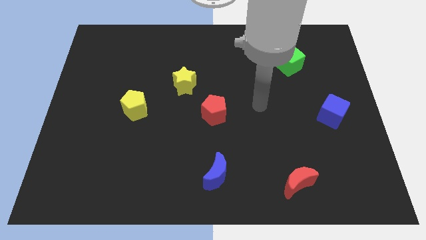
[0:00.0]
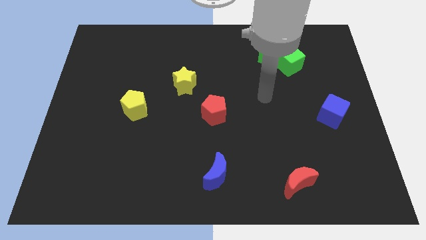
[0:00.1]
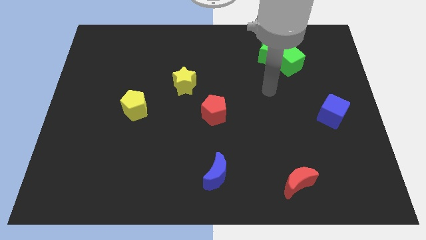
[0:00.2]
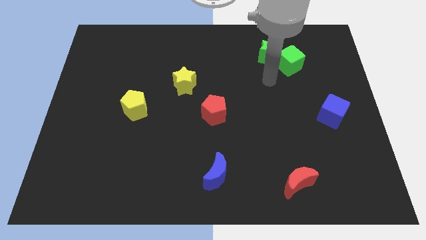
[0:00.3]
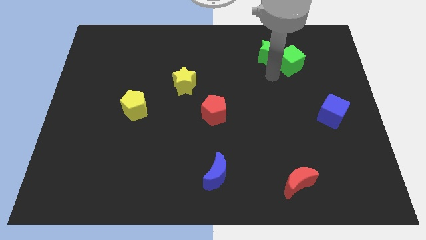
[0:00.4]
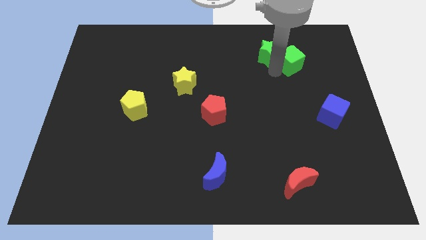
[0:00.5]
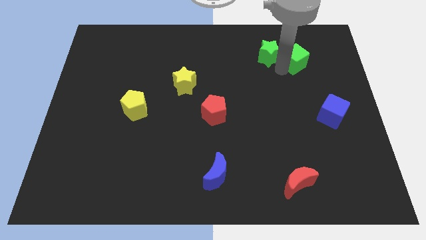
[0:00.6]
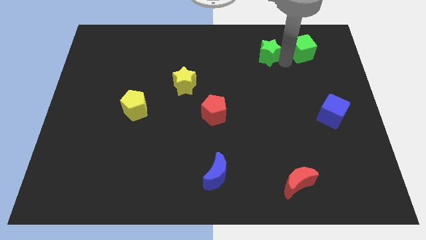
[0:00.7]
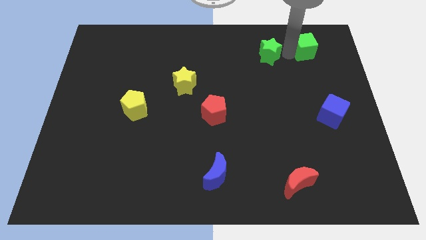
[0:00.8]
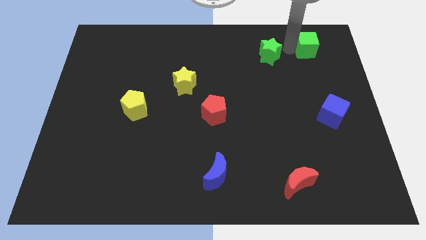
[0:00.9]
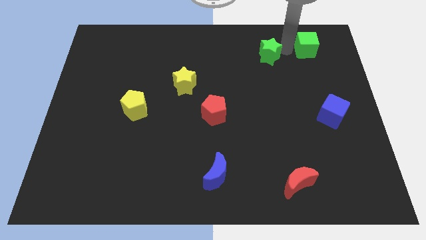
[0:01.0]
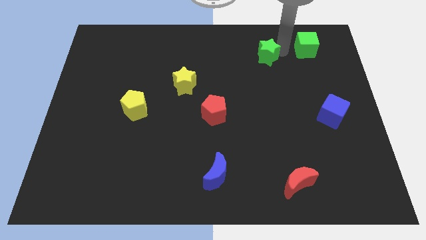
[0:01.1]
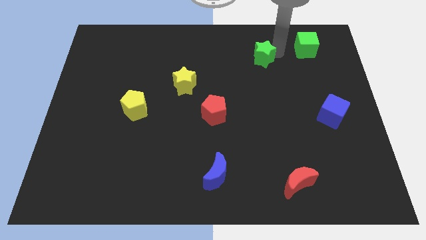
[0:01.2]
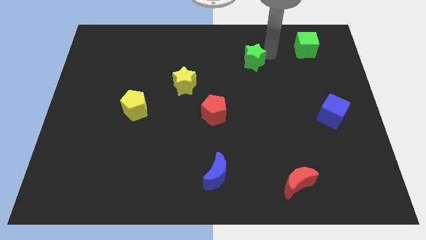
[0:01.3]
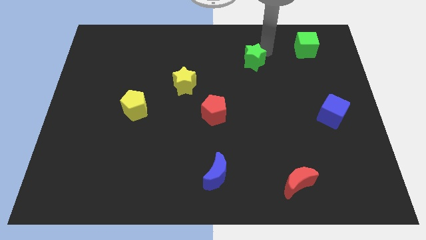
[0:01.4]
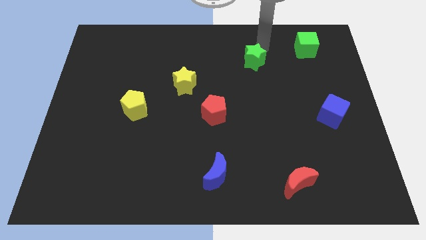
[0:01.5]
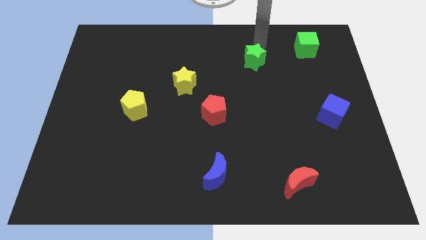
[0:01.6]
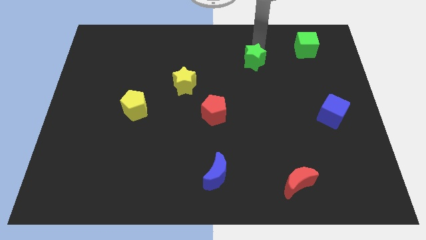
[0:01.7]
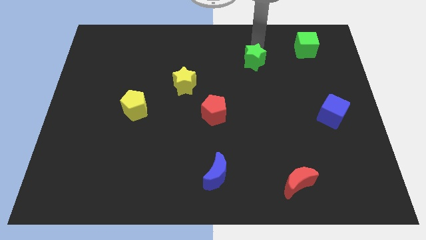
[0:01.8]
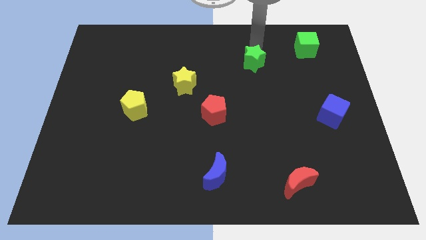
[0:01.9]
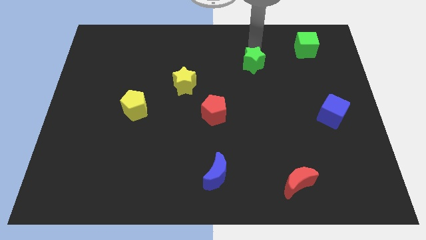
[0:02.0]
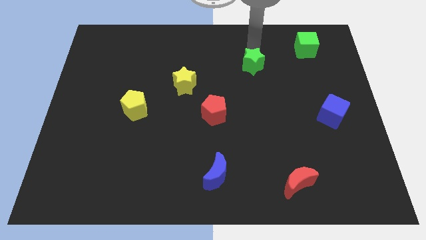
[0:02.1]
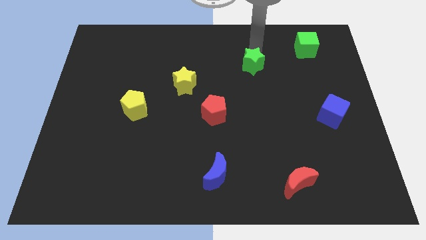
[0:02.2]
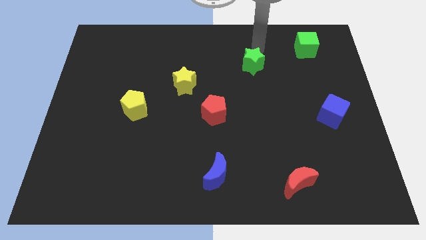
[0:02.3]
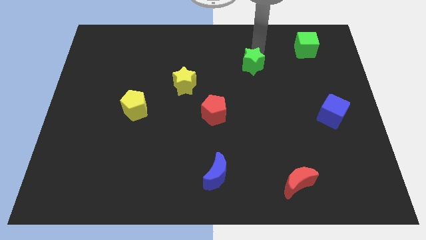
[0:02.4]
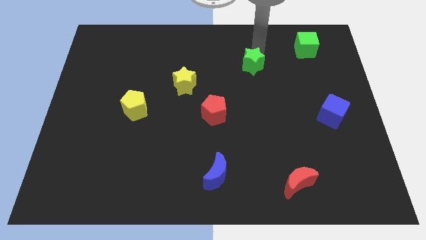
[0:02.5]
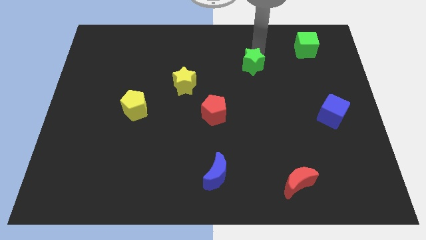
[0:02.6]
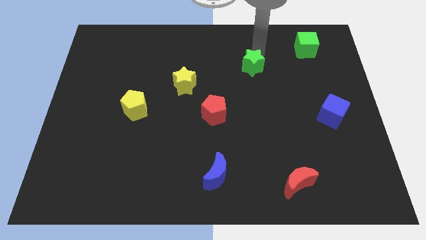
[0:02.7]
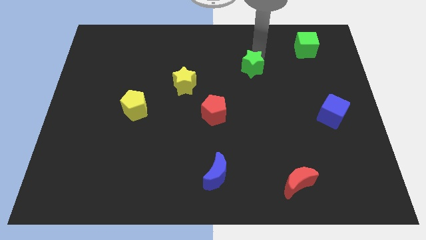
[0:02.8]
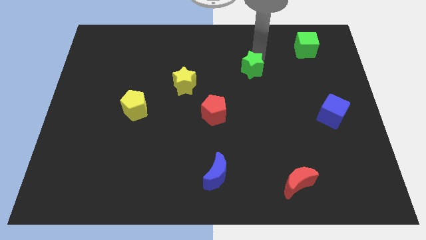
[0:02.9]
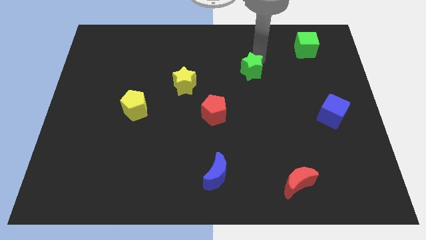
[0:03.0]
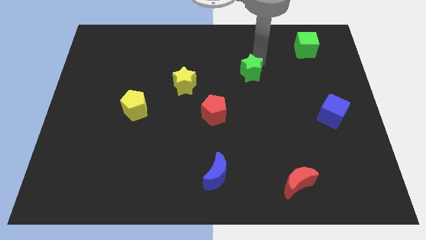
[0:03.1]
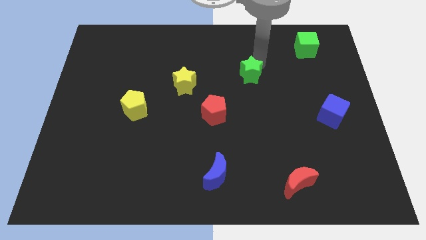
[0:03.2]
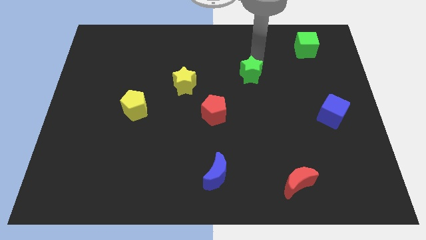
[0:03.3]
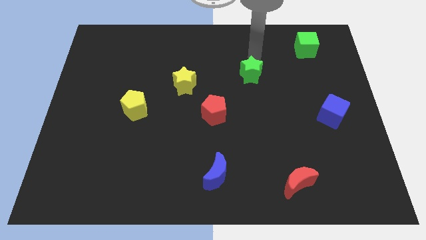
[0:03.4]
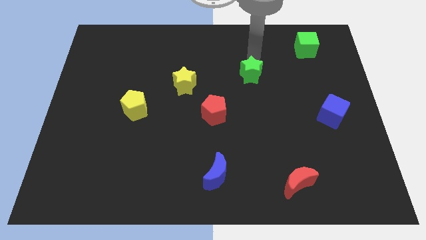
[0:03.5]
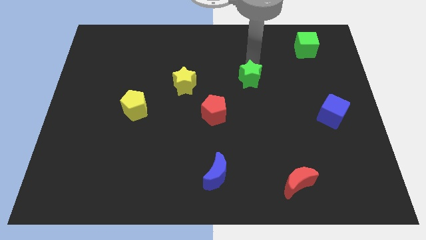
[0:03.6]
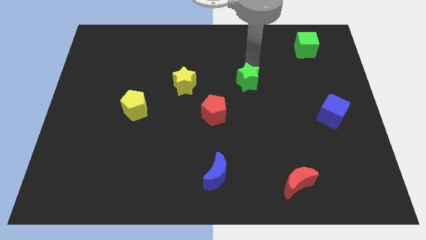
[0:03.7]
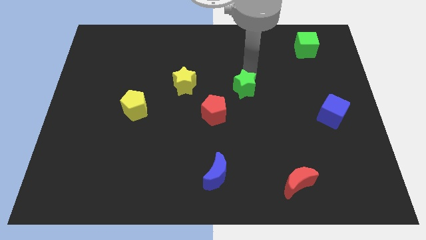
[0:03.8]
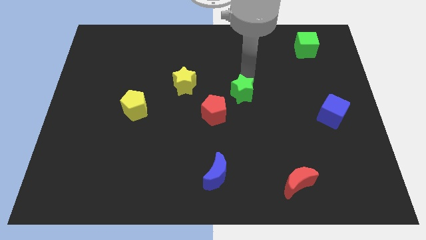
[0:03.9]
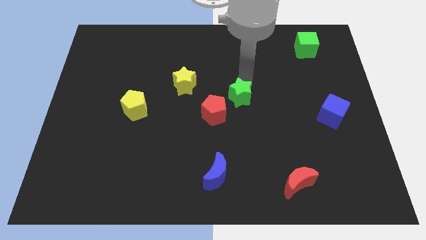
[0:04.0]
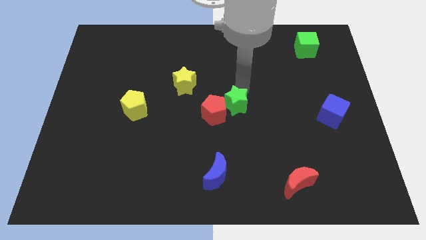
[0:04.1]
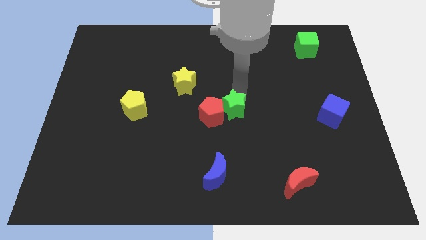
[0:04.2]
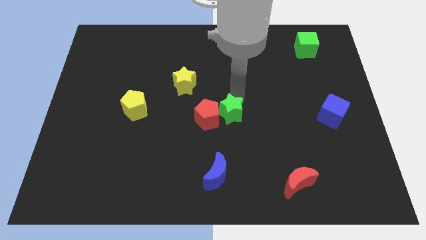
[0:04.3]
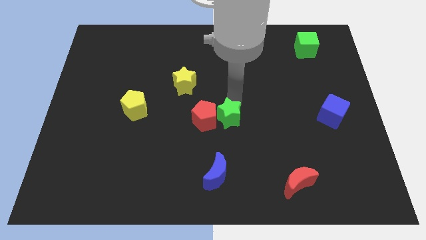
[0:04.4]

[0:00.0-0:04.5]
move the green star downwards and left

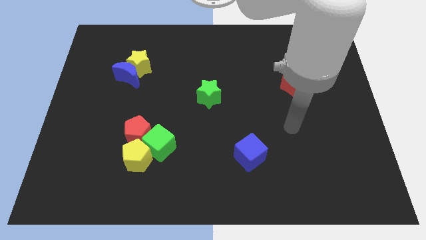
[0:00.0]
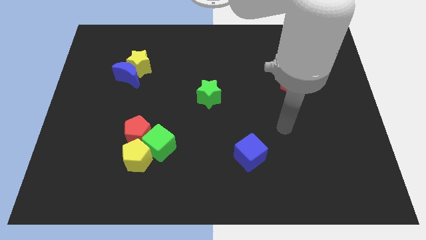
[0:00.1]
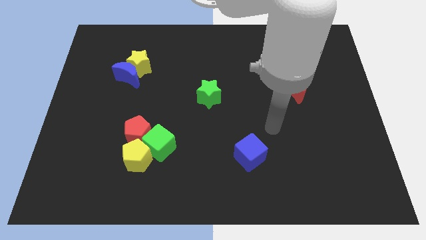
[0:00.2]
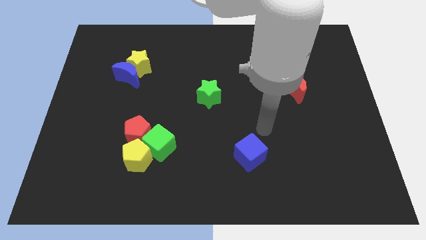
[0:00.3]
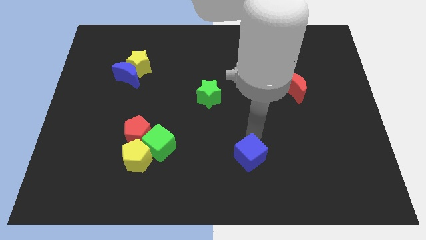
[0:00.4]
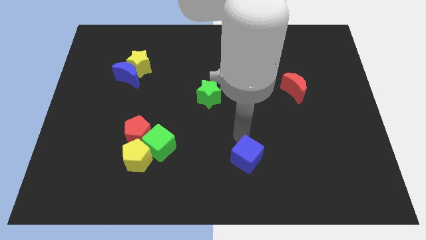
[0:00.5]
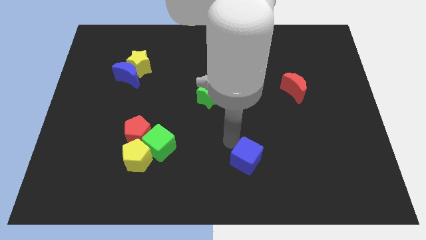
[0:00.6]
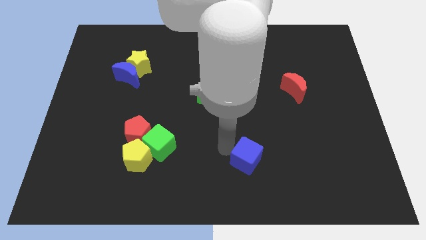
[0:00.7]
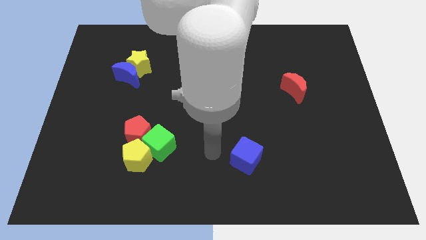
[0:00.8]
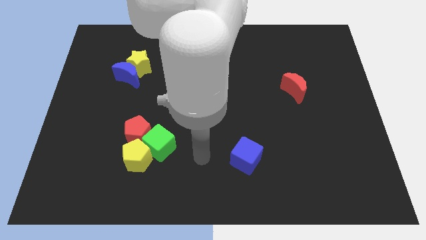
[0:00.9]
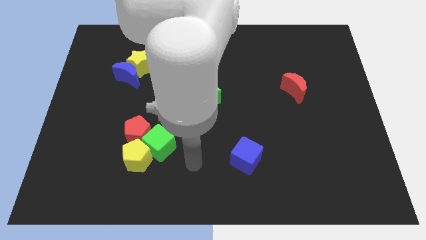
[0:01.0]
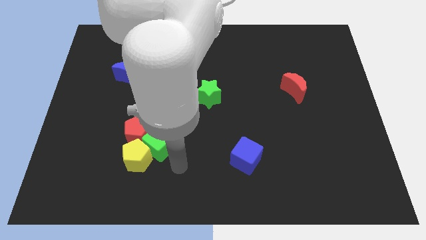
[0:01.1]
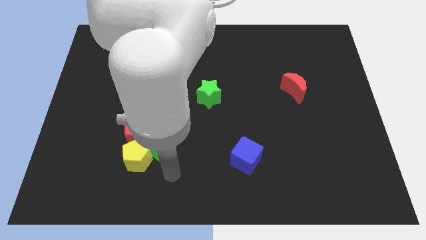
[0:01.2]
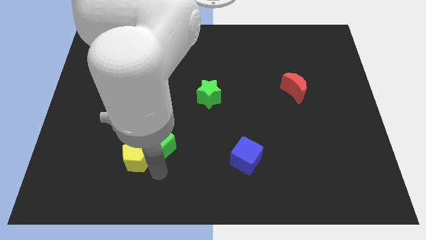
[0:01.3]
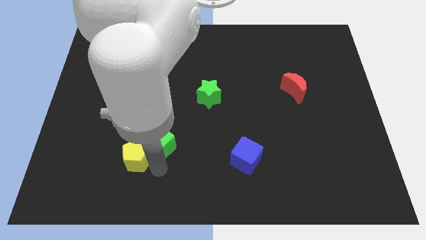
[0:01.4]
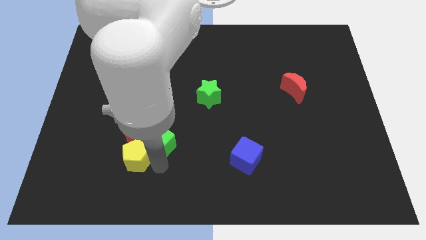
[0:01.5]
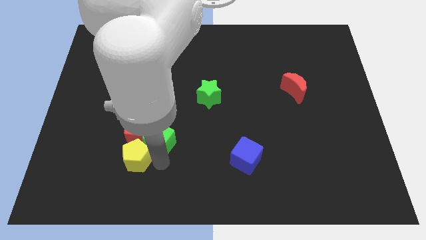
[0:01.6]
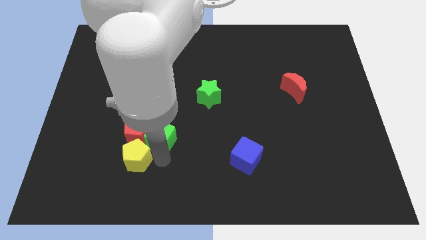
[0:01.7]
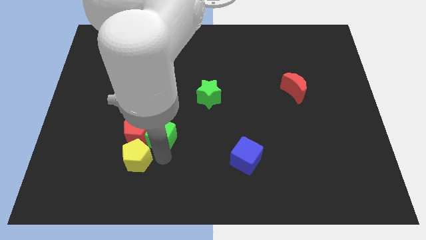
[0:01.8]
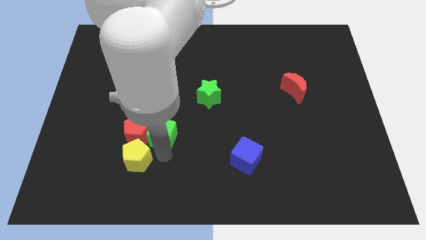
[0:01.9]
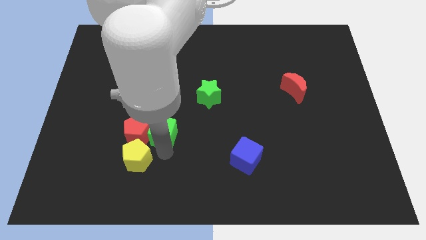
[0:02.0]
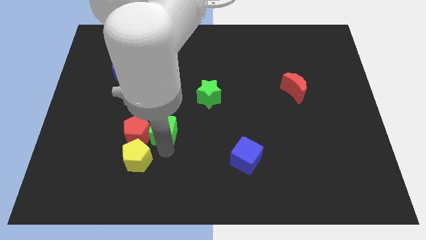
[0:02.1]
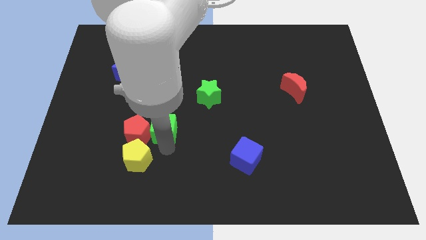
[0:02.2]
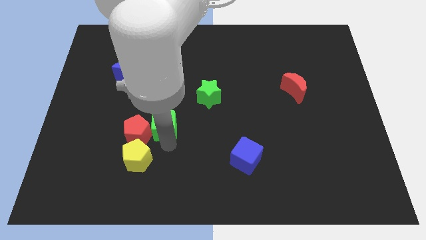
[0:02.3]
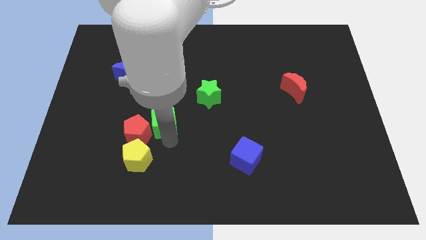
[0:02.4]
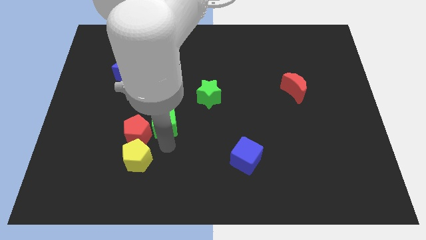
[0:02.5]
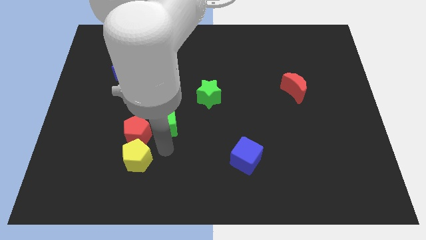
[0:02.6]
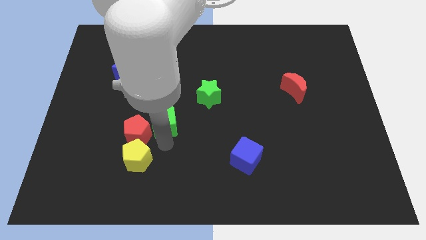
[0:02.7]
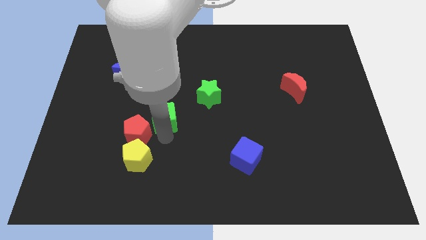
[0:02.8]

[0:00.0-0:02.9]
slightly push the green cube up

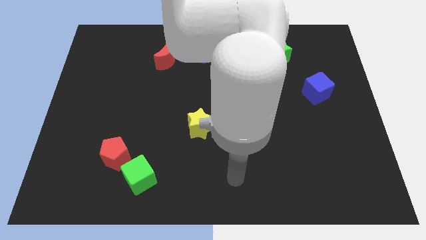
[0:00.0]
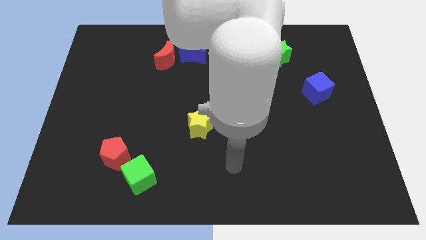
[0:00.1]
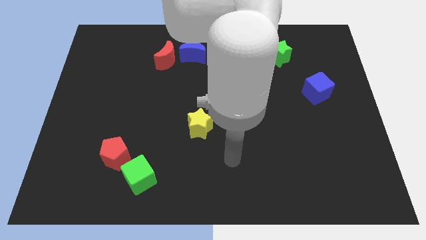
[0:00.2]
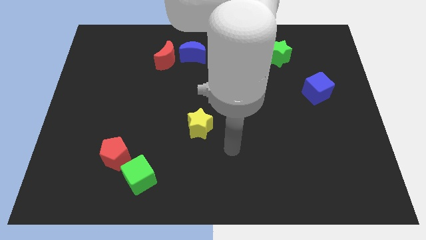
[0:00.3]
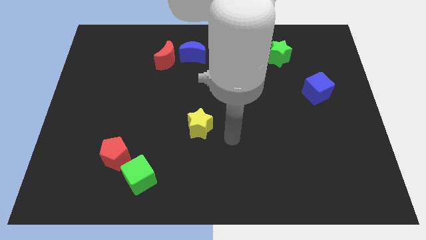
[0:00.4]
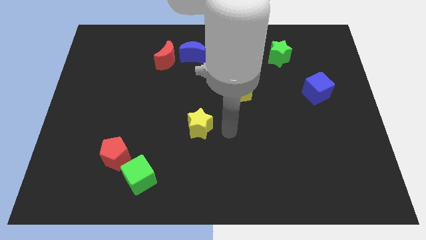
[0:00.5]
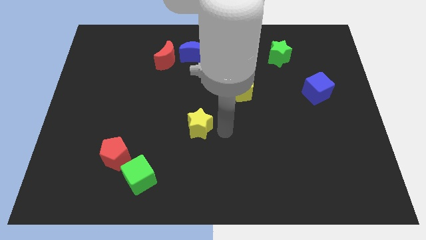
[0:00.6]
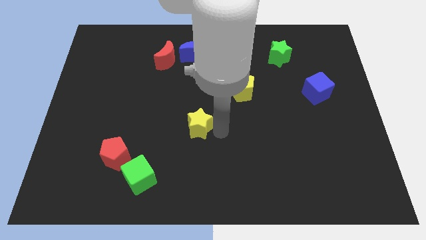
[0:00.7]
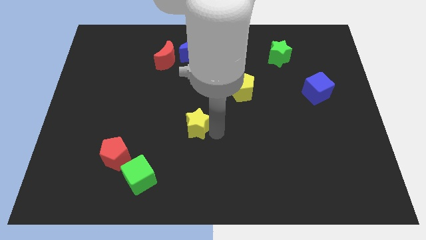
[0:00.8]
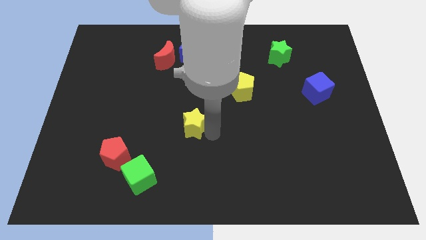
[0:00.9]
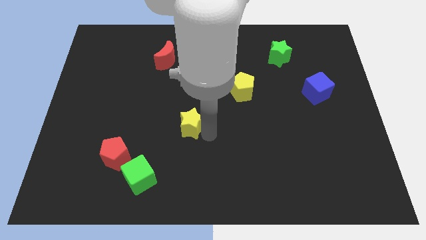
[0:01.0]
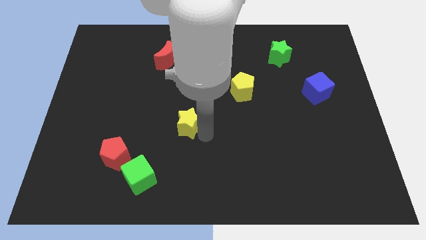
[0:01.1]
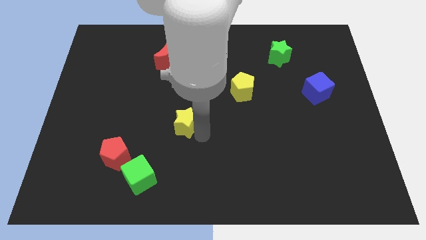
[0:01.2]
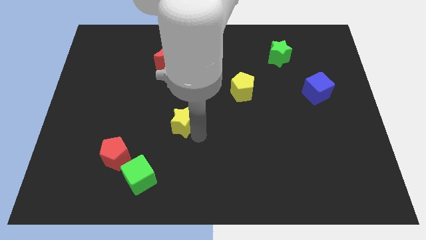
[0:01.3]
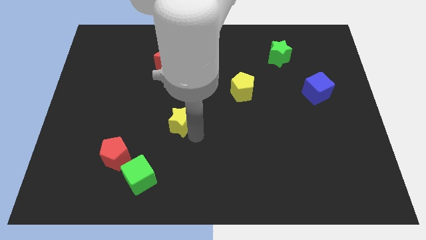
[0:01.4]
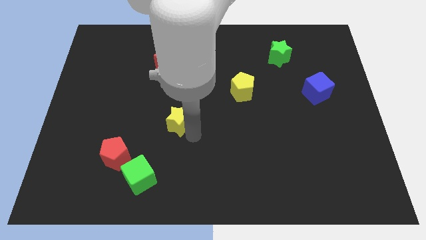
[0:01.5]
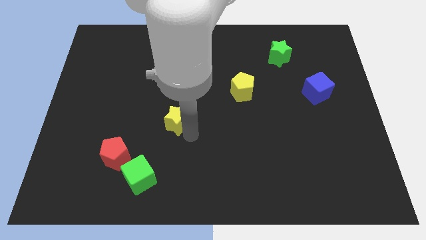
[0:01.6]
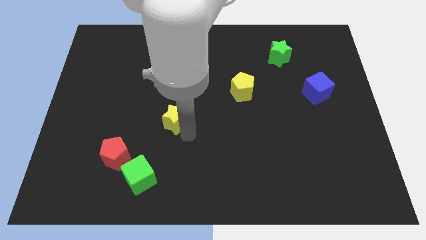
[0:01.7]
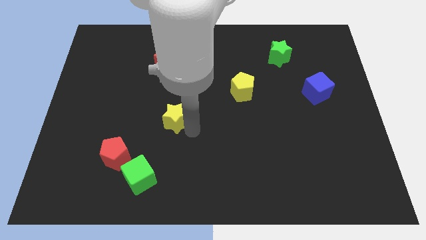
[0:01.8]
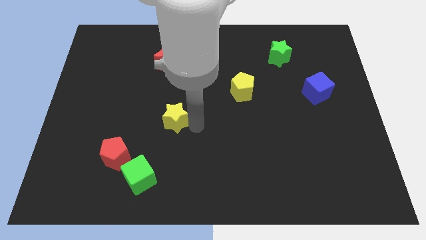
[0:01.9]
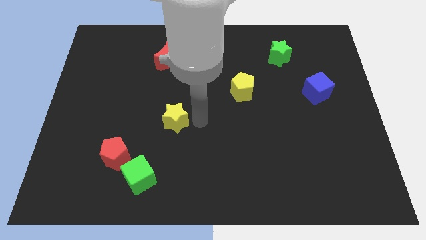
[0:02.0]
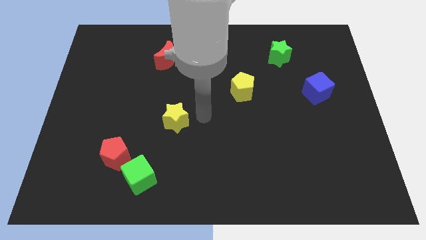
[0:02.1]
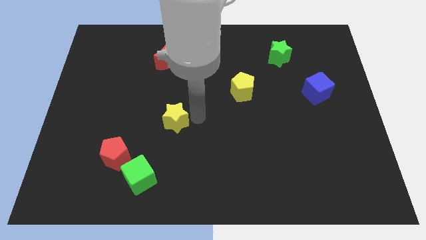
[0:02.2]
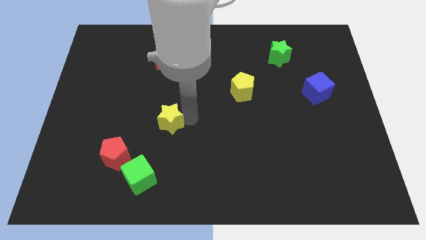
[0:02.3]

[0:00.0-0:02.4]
slightly push the yellow star left
